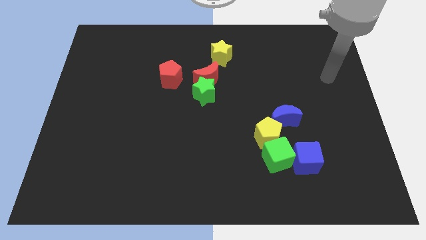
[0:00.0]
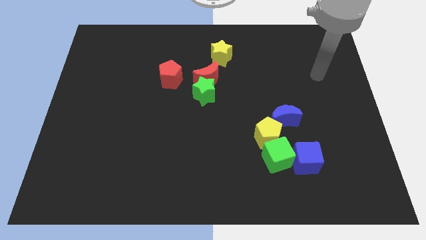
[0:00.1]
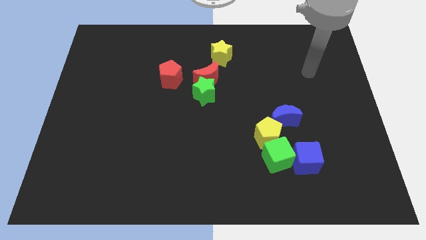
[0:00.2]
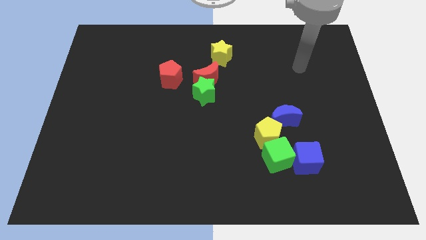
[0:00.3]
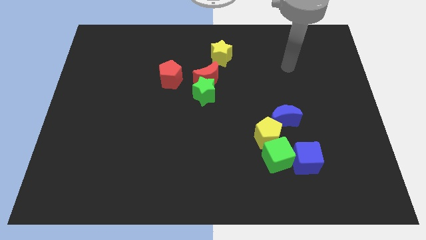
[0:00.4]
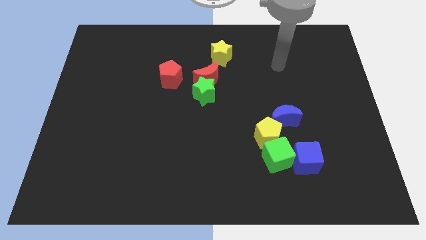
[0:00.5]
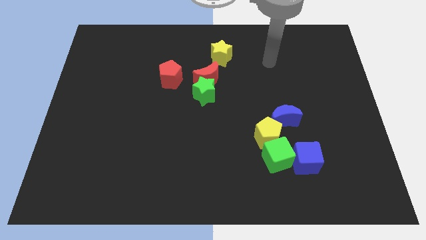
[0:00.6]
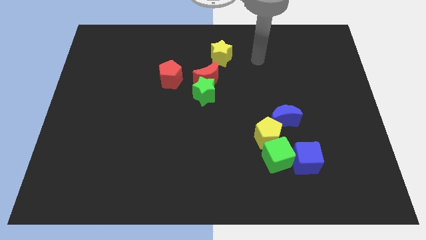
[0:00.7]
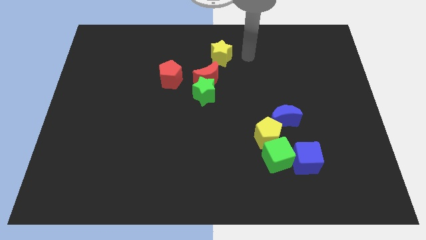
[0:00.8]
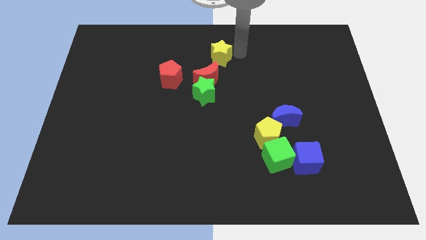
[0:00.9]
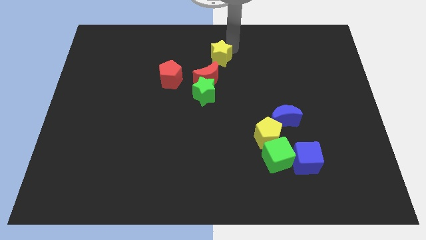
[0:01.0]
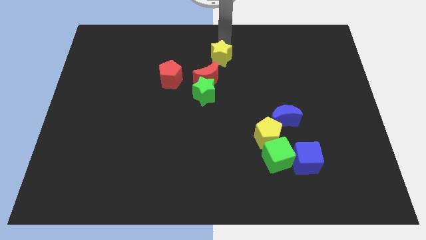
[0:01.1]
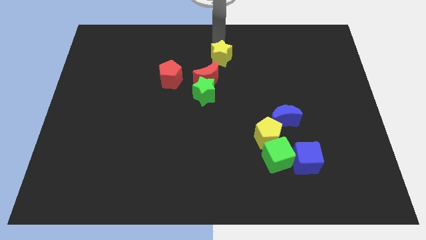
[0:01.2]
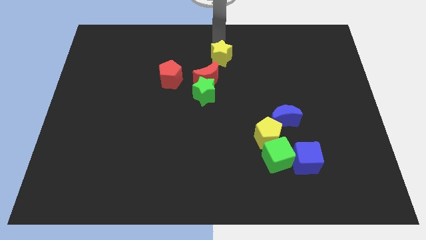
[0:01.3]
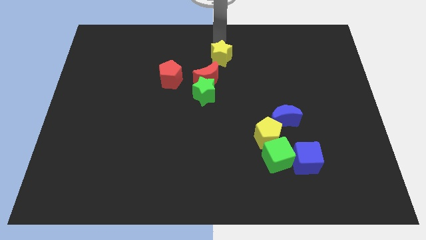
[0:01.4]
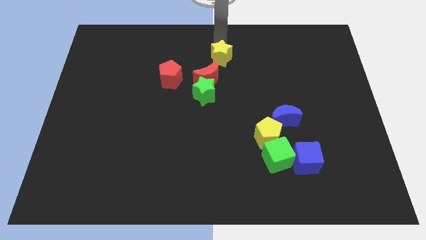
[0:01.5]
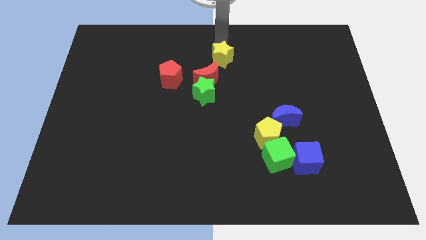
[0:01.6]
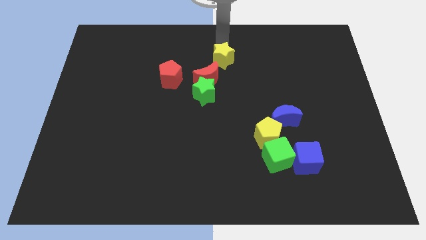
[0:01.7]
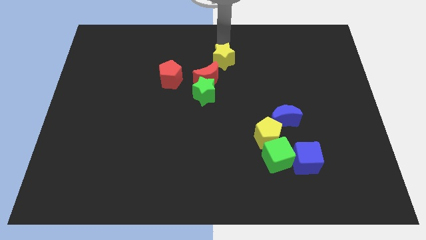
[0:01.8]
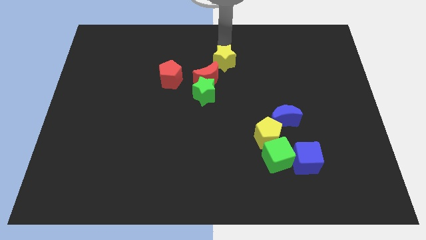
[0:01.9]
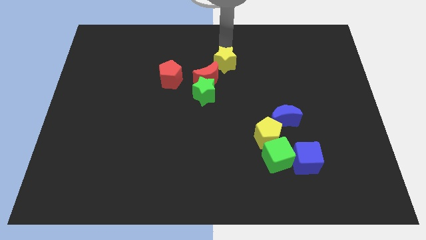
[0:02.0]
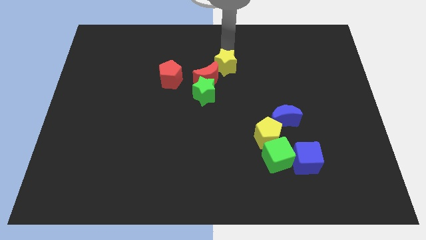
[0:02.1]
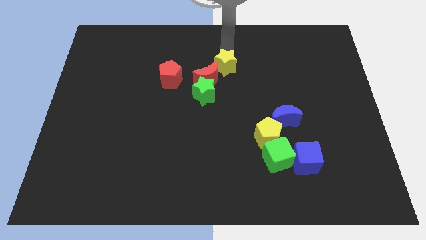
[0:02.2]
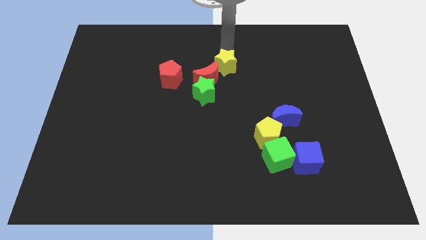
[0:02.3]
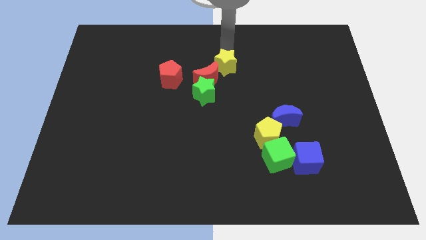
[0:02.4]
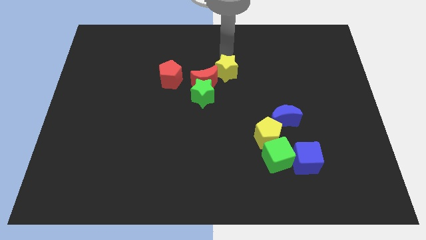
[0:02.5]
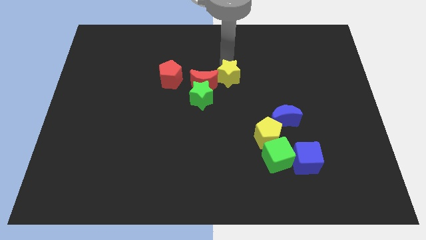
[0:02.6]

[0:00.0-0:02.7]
move the yellow star a little downwards

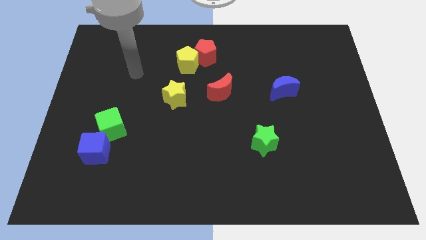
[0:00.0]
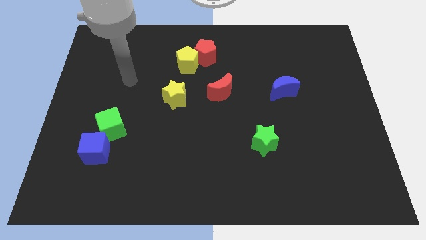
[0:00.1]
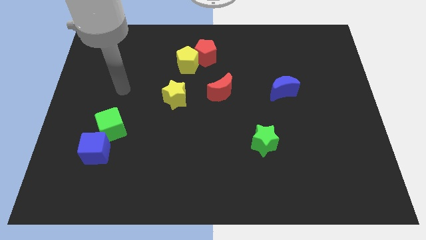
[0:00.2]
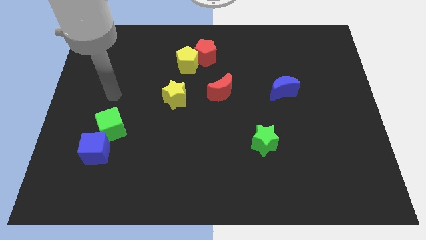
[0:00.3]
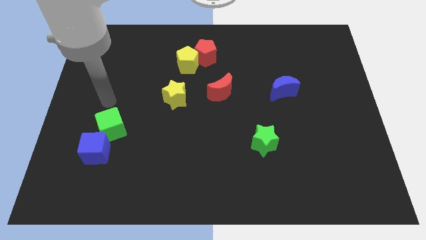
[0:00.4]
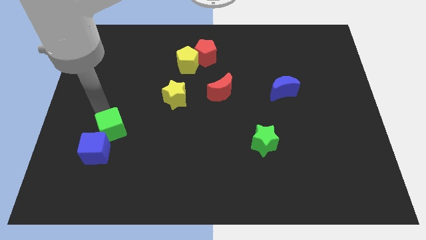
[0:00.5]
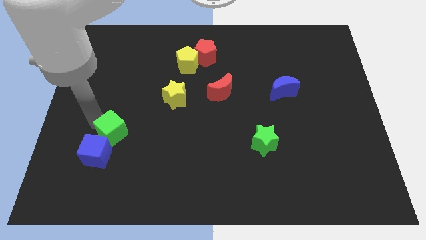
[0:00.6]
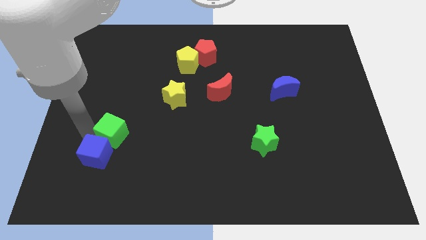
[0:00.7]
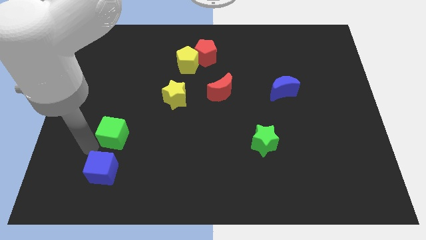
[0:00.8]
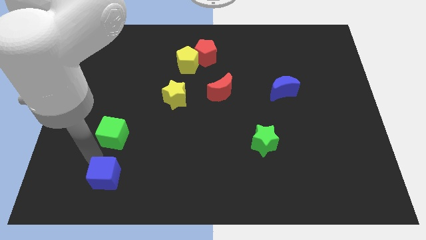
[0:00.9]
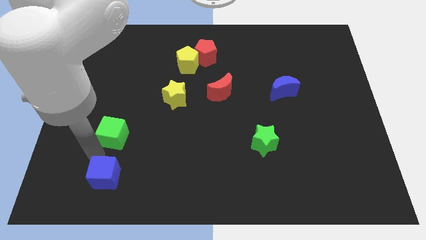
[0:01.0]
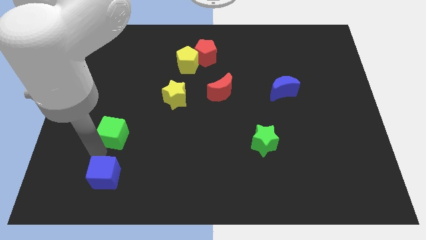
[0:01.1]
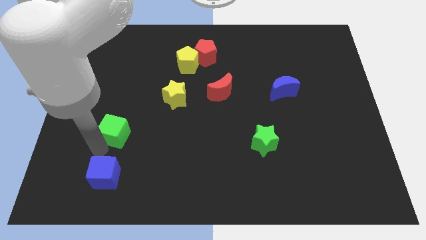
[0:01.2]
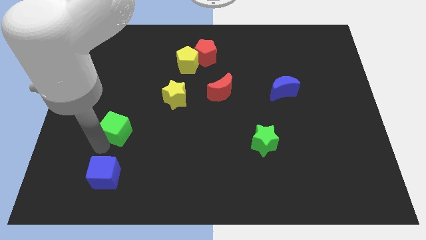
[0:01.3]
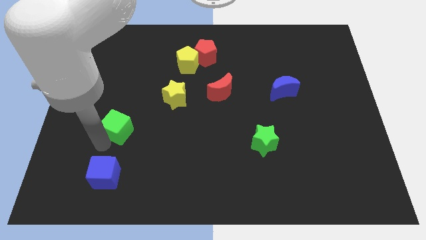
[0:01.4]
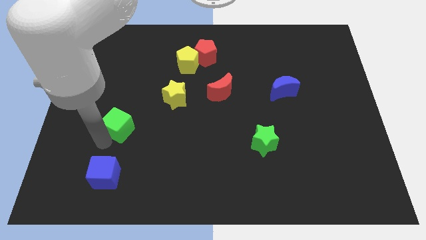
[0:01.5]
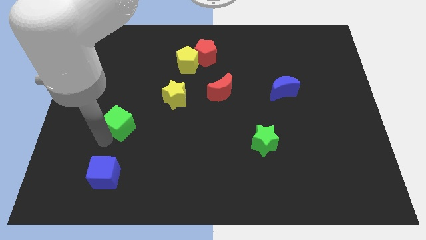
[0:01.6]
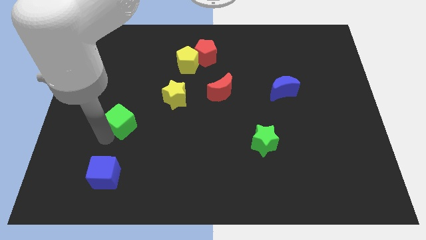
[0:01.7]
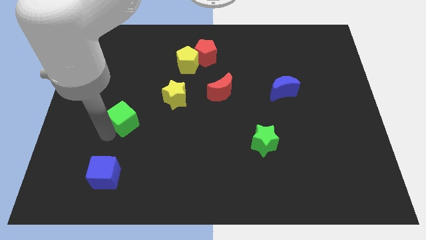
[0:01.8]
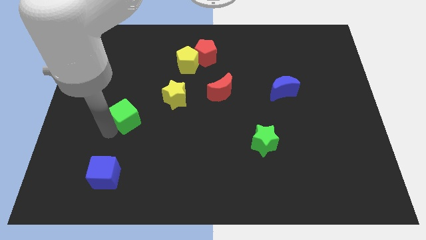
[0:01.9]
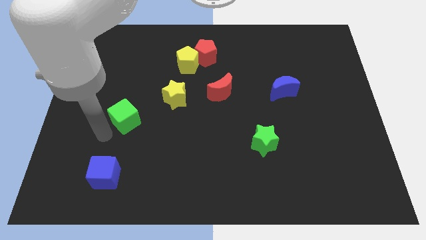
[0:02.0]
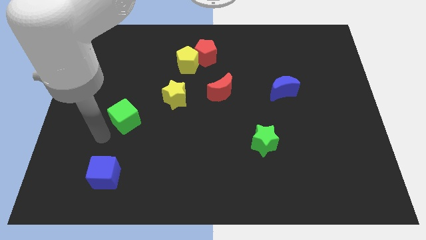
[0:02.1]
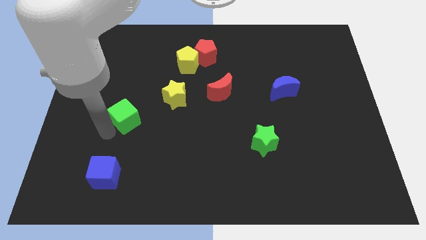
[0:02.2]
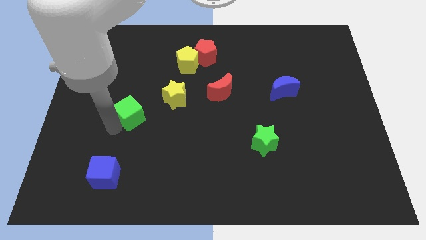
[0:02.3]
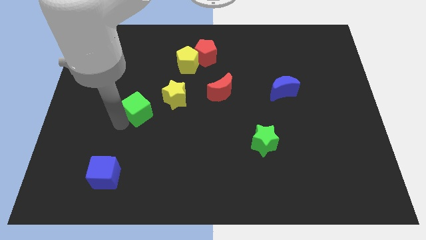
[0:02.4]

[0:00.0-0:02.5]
slide the green cube diagonally up and to the right a bit

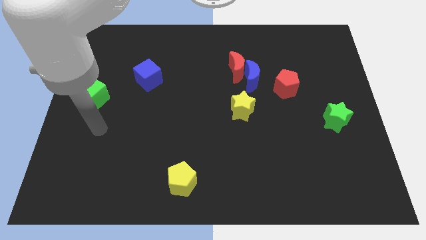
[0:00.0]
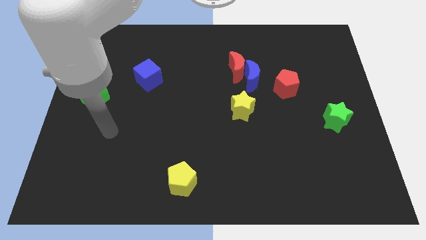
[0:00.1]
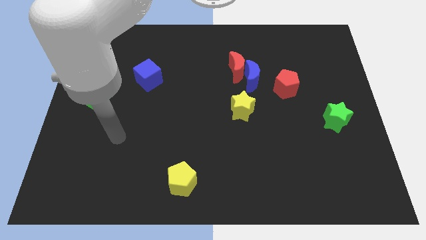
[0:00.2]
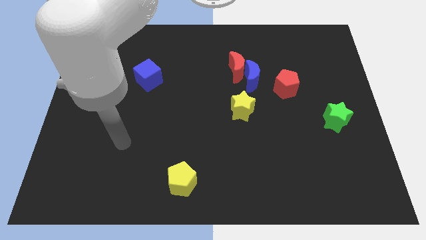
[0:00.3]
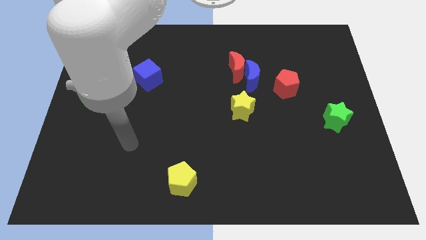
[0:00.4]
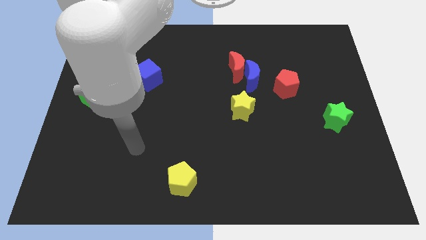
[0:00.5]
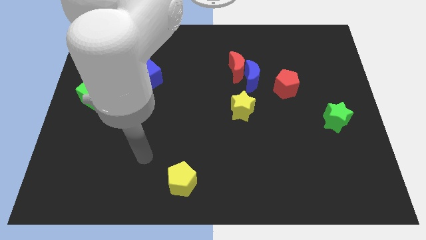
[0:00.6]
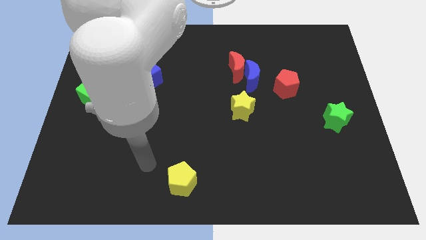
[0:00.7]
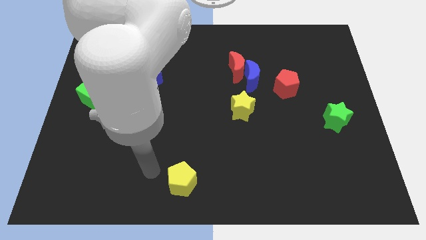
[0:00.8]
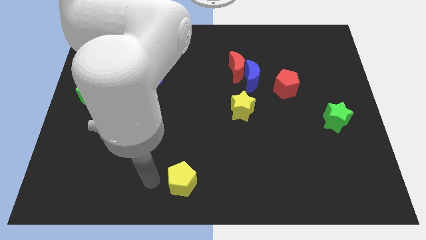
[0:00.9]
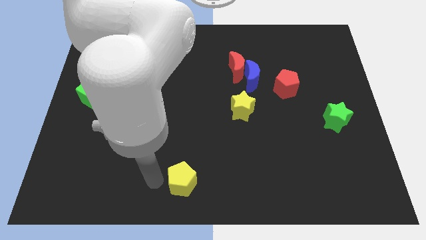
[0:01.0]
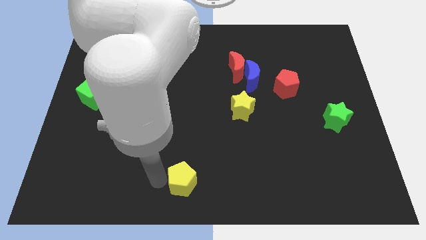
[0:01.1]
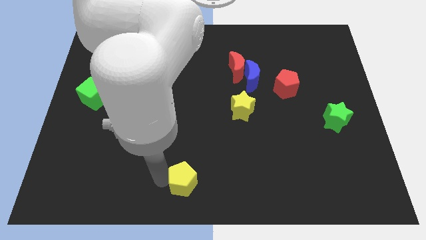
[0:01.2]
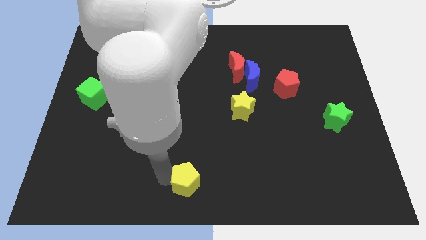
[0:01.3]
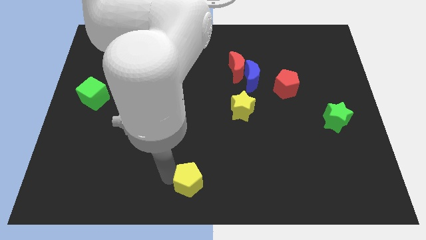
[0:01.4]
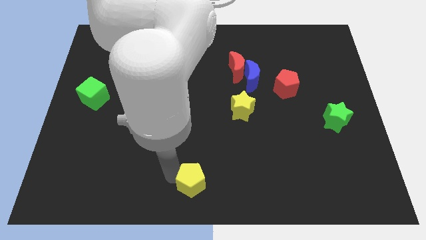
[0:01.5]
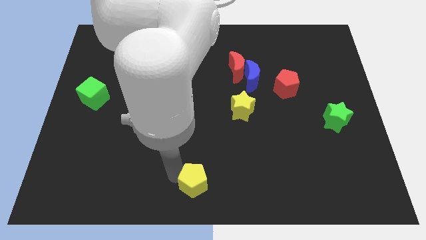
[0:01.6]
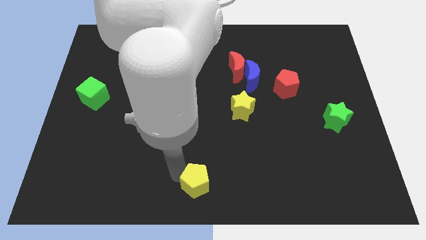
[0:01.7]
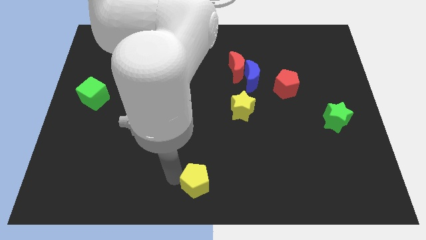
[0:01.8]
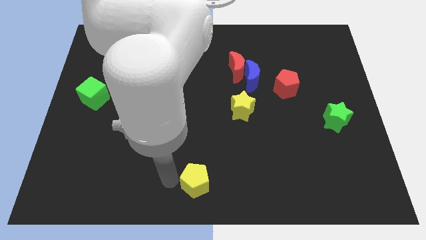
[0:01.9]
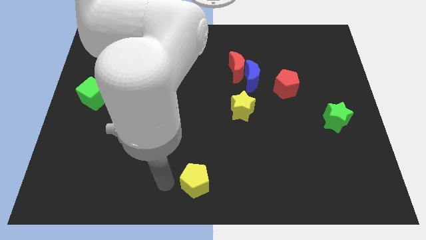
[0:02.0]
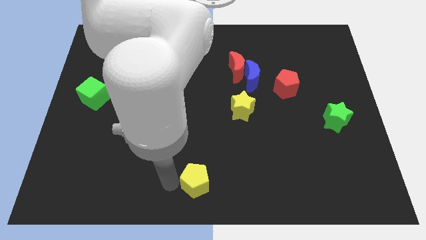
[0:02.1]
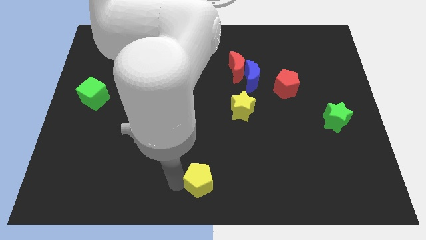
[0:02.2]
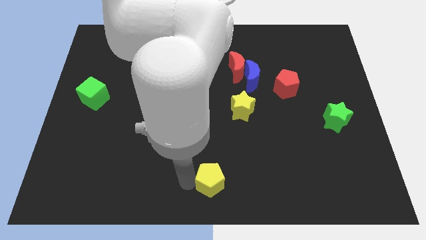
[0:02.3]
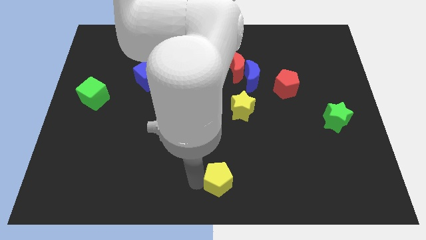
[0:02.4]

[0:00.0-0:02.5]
move the yellow pentagon a little bit to the right

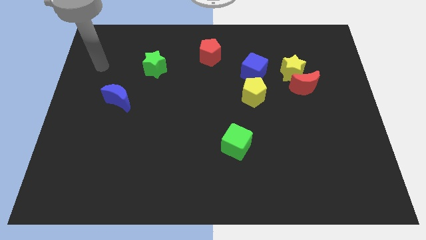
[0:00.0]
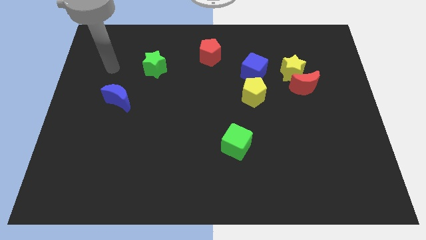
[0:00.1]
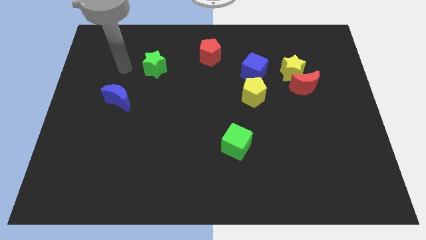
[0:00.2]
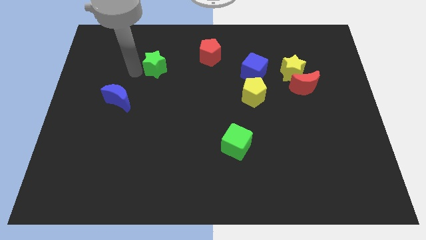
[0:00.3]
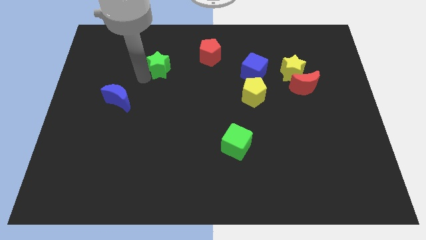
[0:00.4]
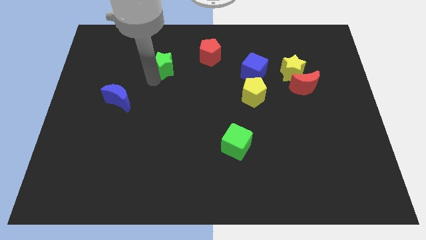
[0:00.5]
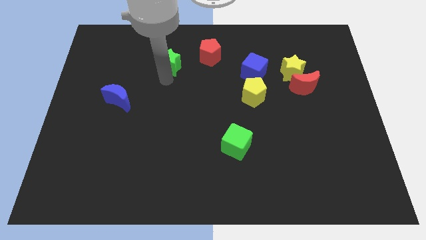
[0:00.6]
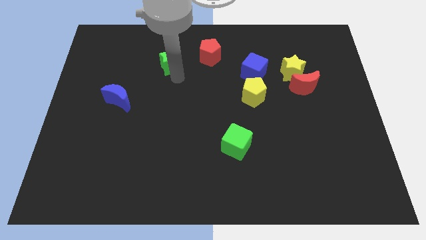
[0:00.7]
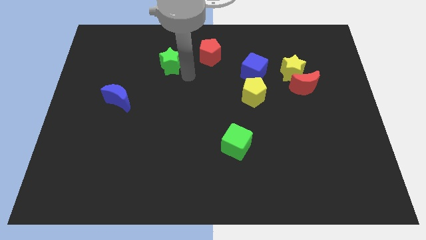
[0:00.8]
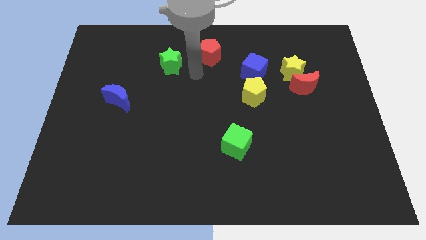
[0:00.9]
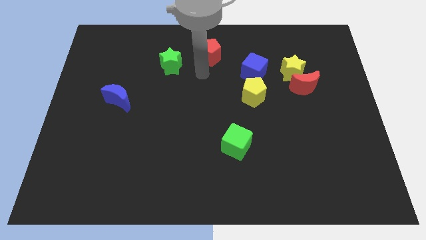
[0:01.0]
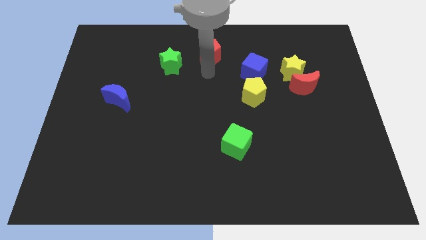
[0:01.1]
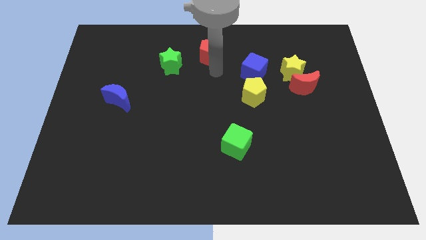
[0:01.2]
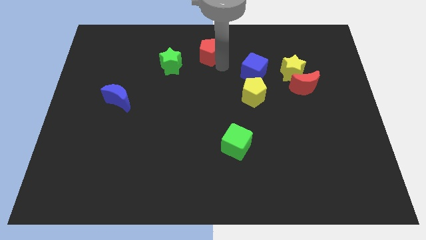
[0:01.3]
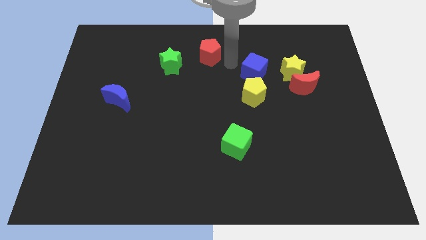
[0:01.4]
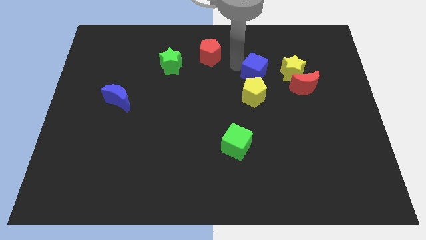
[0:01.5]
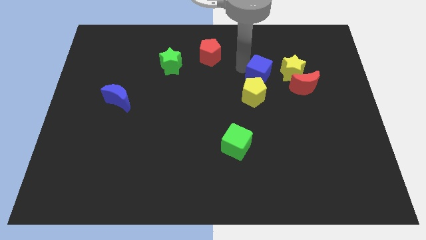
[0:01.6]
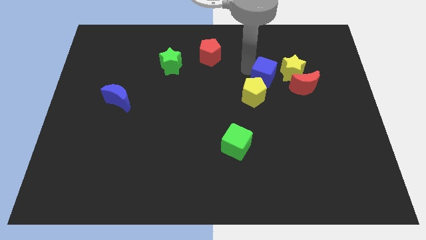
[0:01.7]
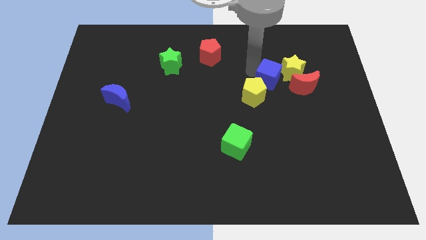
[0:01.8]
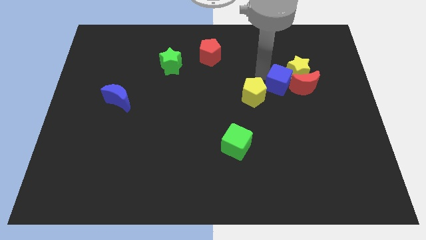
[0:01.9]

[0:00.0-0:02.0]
slightly push the blue cube down and then to the right
